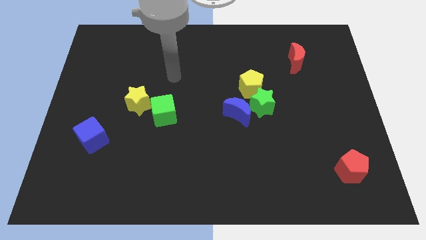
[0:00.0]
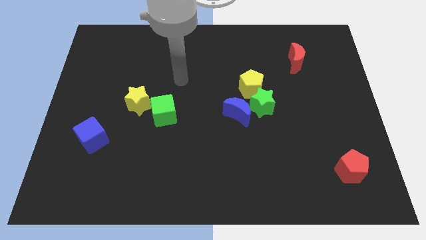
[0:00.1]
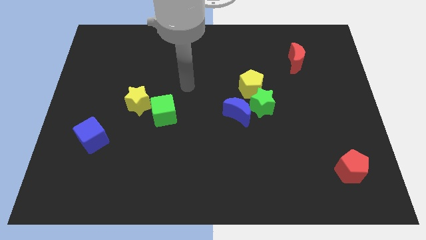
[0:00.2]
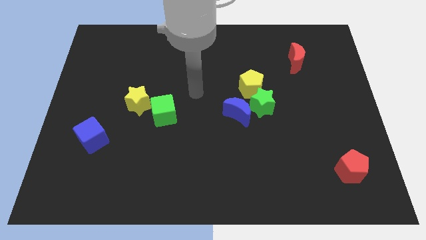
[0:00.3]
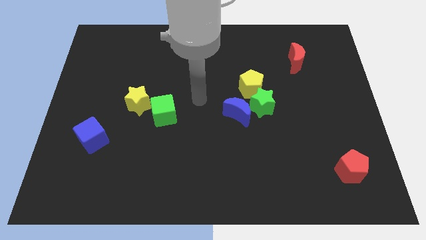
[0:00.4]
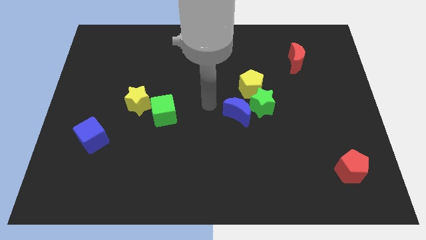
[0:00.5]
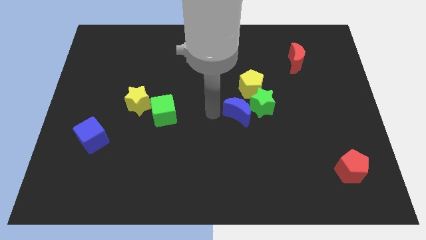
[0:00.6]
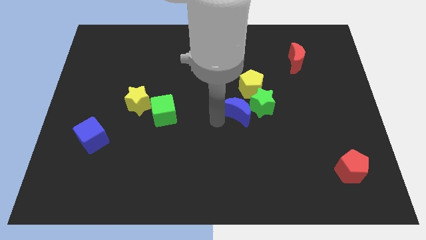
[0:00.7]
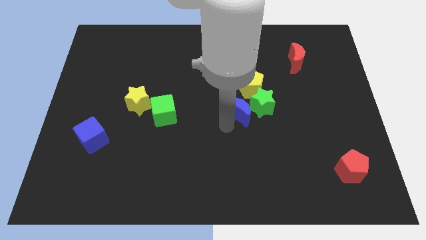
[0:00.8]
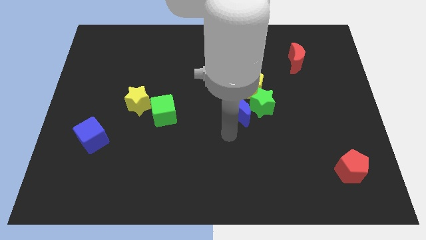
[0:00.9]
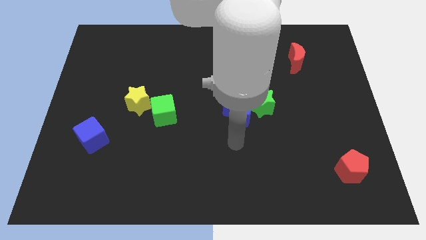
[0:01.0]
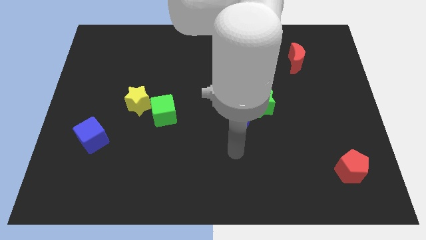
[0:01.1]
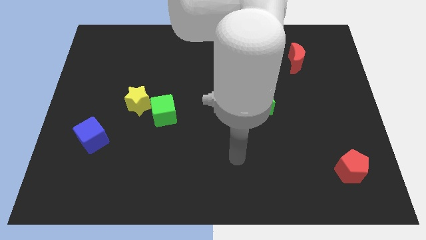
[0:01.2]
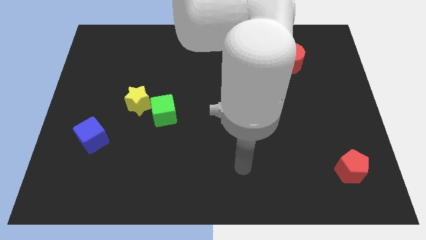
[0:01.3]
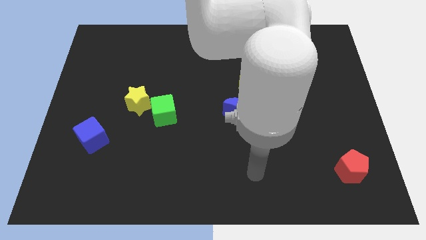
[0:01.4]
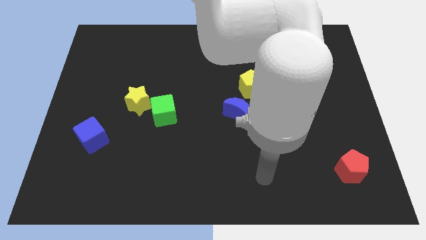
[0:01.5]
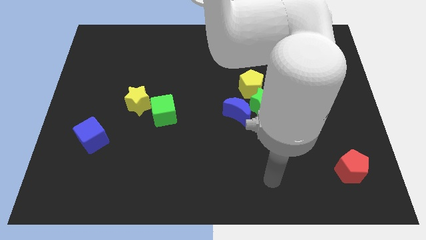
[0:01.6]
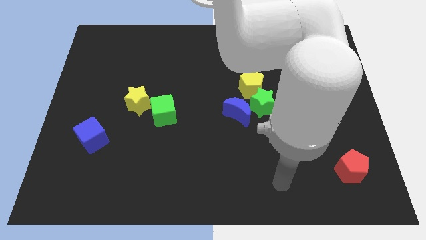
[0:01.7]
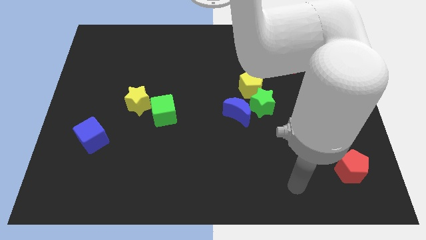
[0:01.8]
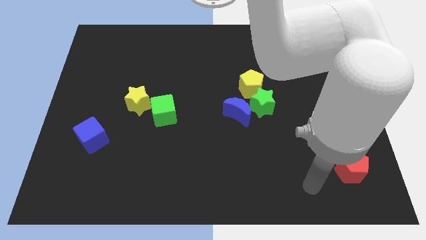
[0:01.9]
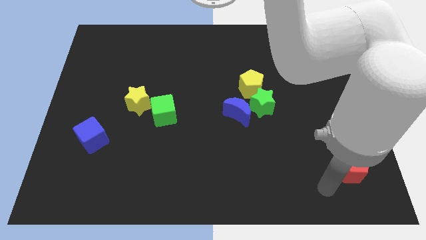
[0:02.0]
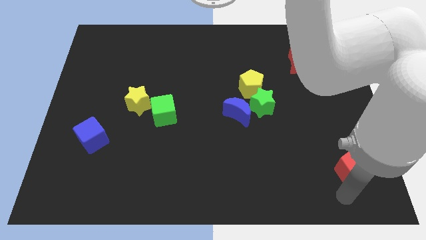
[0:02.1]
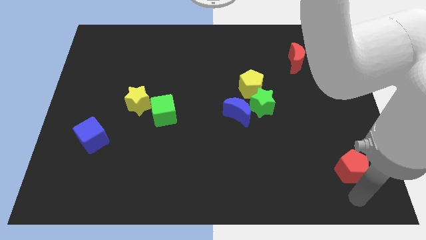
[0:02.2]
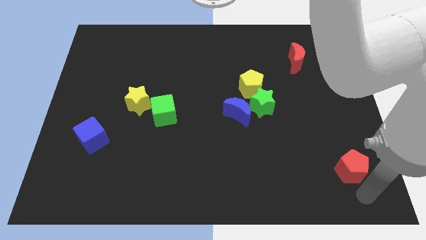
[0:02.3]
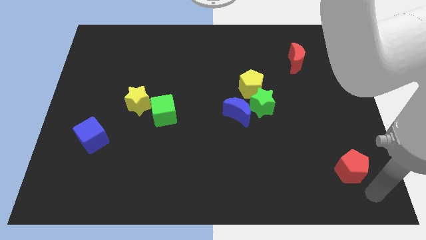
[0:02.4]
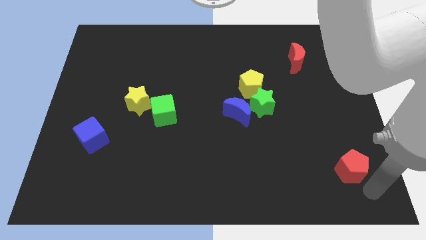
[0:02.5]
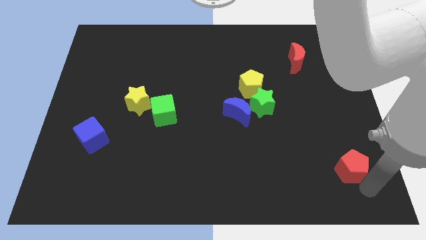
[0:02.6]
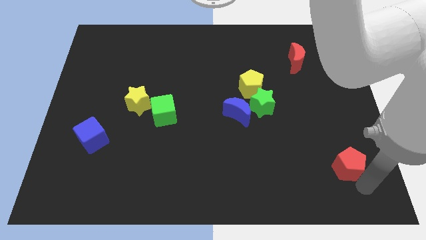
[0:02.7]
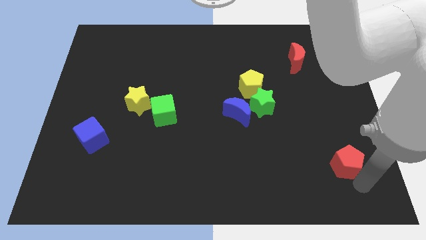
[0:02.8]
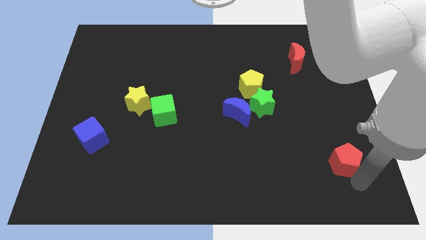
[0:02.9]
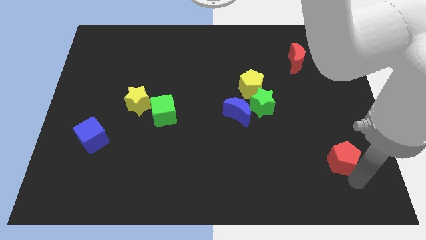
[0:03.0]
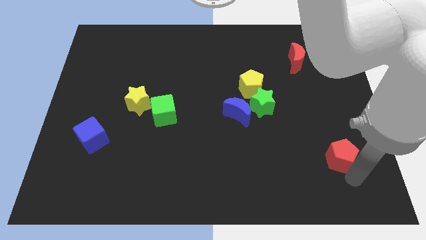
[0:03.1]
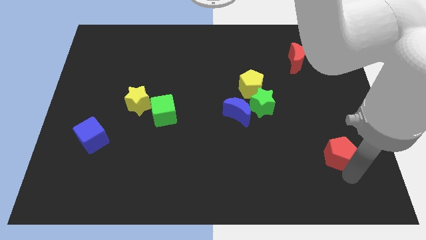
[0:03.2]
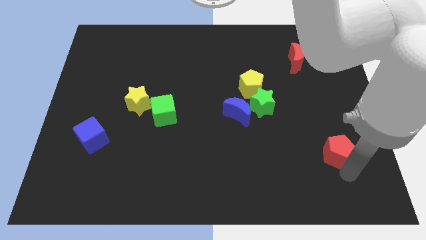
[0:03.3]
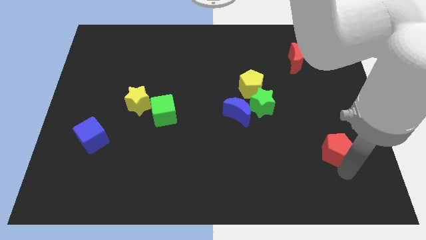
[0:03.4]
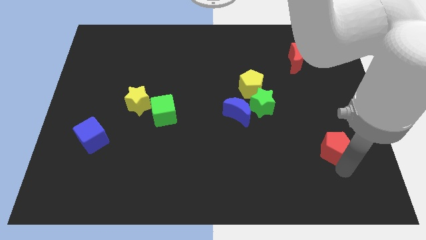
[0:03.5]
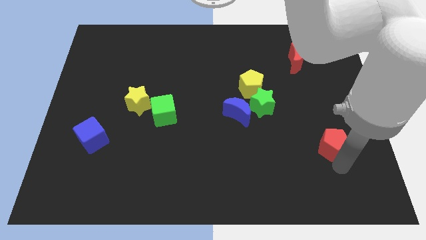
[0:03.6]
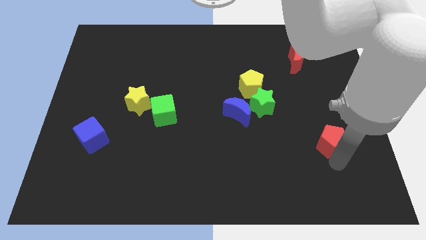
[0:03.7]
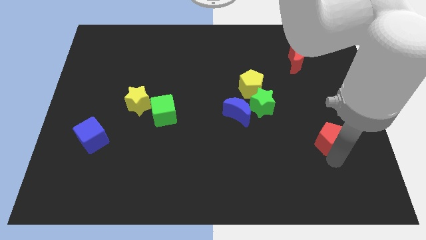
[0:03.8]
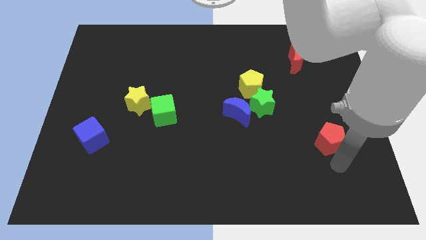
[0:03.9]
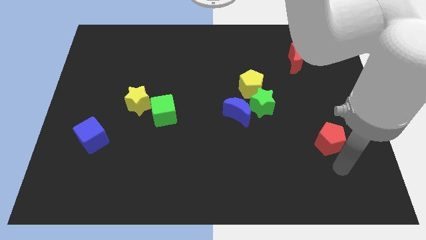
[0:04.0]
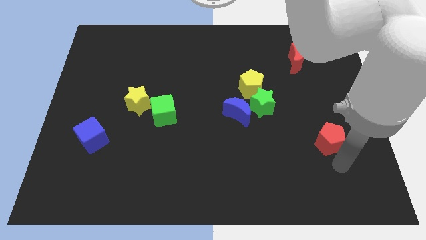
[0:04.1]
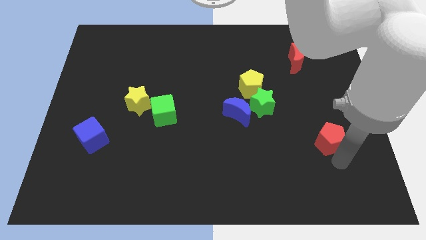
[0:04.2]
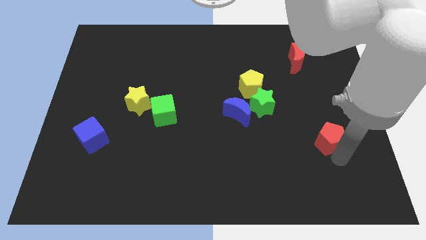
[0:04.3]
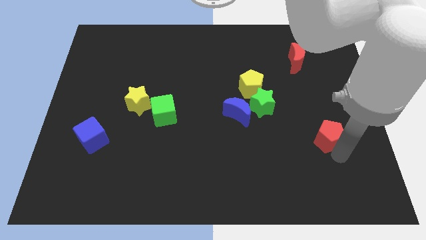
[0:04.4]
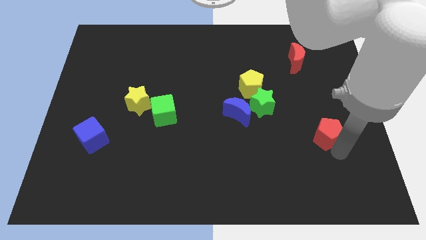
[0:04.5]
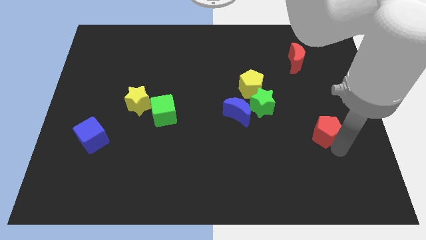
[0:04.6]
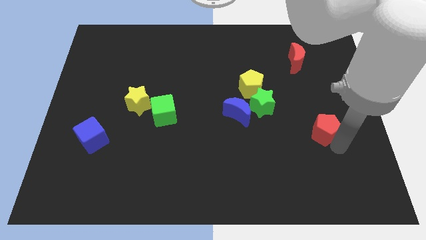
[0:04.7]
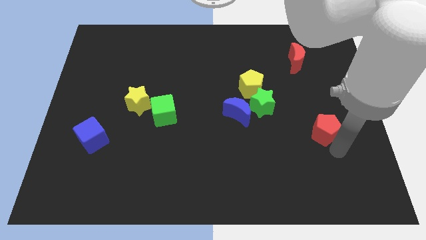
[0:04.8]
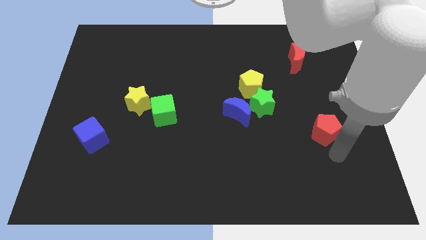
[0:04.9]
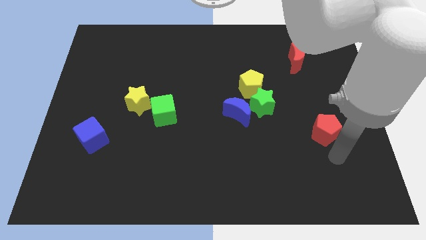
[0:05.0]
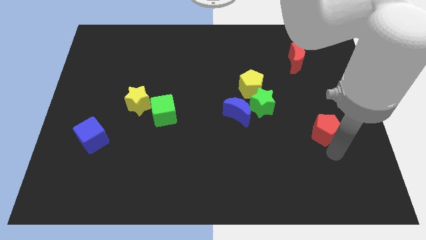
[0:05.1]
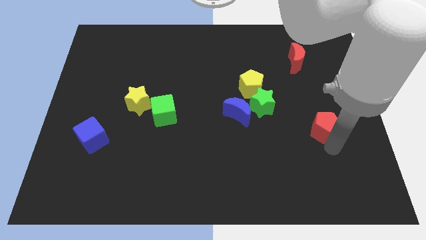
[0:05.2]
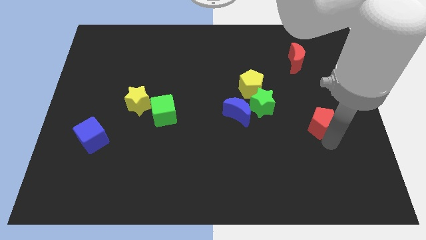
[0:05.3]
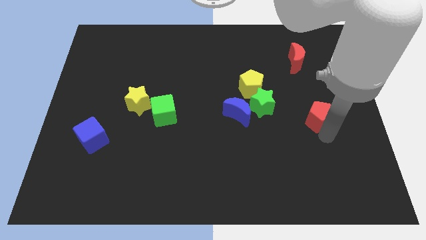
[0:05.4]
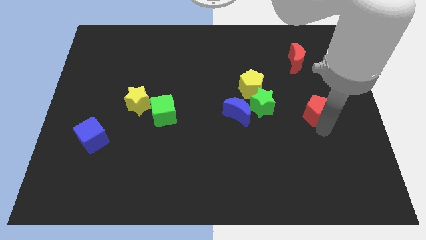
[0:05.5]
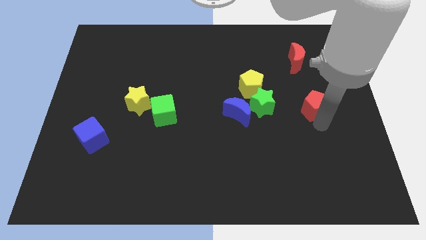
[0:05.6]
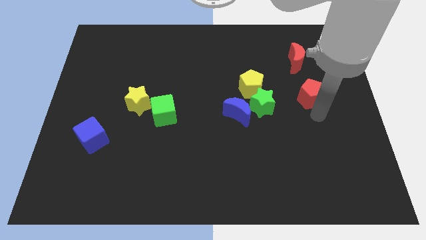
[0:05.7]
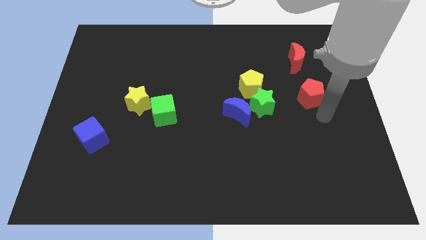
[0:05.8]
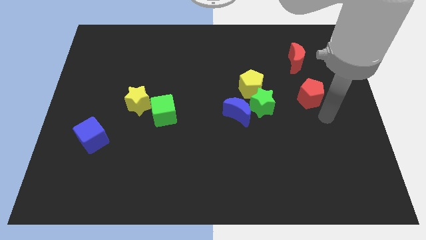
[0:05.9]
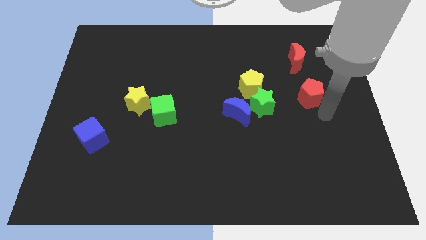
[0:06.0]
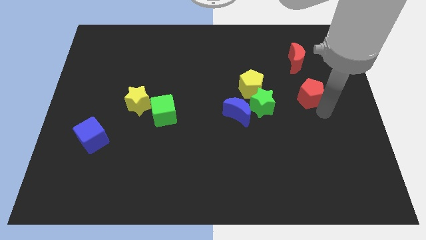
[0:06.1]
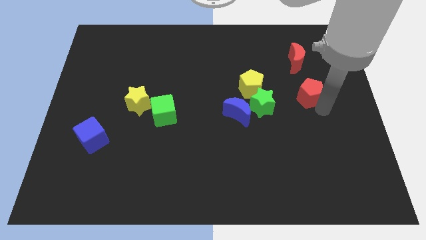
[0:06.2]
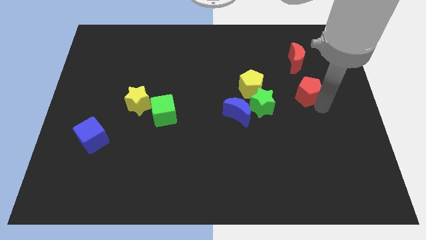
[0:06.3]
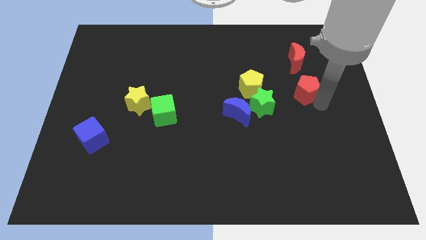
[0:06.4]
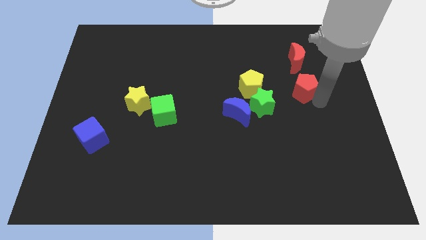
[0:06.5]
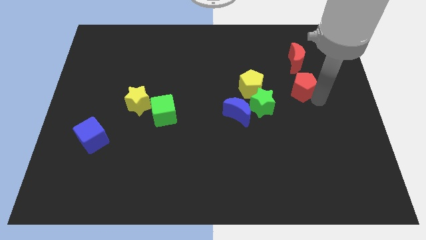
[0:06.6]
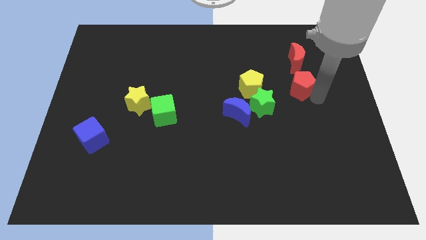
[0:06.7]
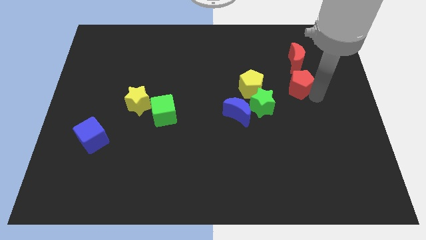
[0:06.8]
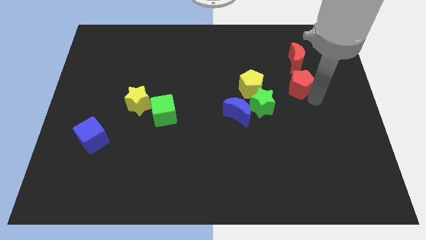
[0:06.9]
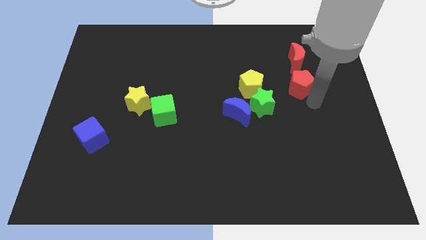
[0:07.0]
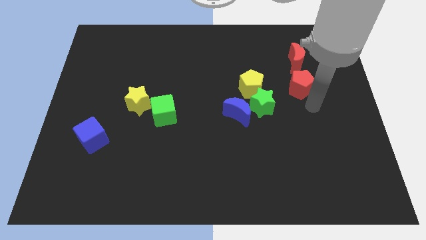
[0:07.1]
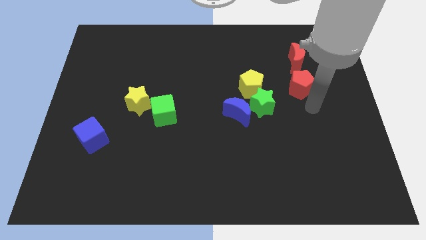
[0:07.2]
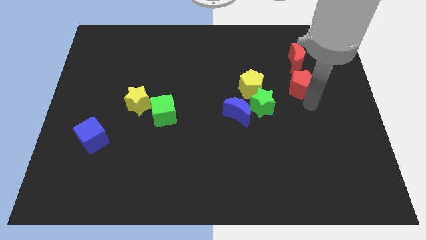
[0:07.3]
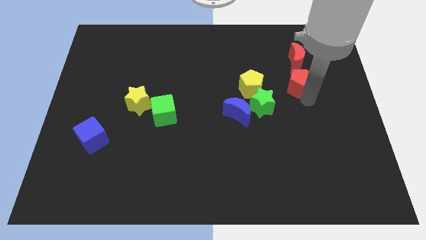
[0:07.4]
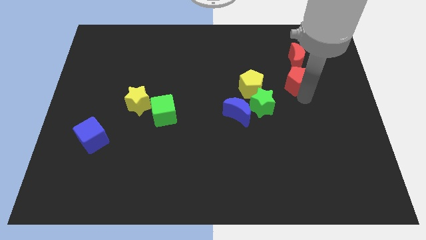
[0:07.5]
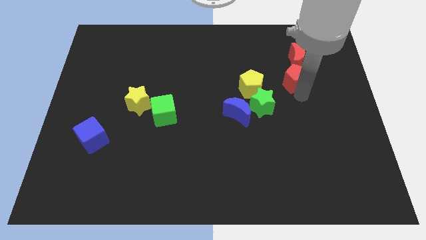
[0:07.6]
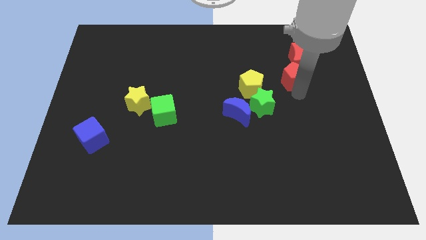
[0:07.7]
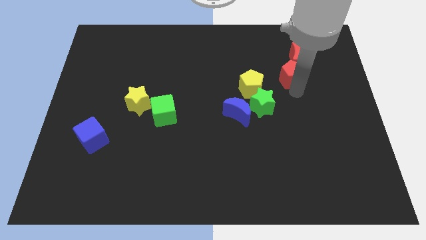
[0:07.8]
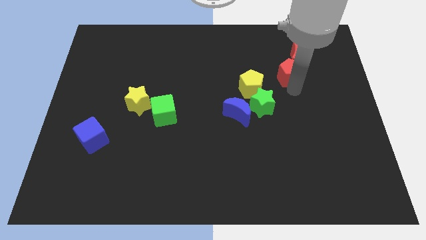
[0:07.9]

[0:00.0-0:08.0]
put the red pentagon next to the red moon
